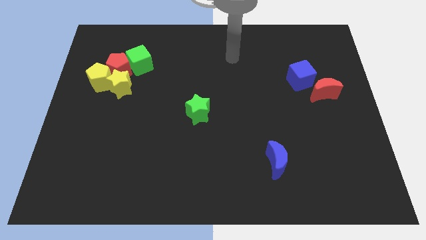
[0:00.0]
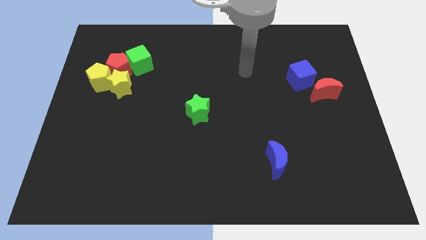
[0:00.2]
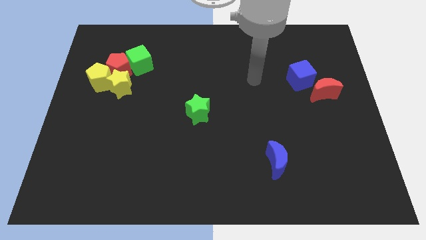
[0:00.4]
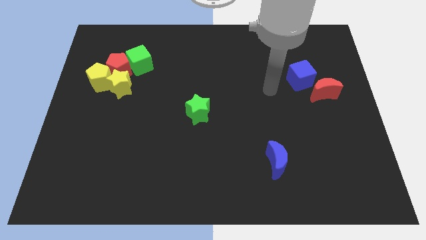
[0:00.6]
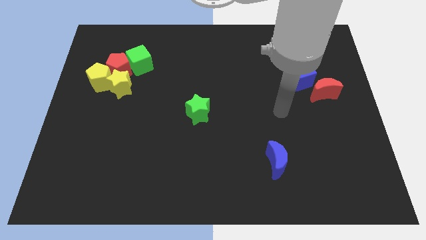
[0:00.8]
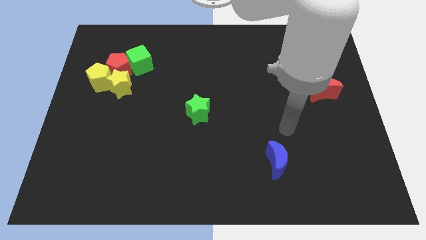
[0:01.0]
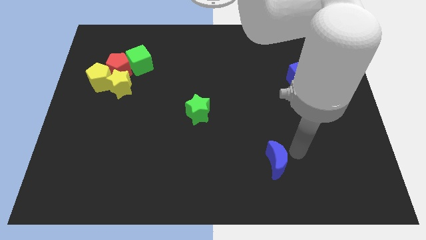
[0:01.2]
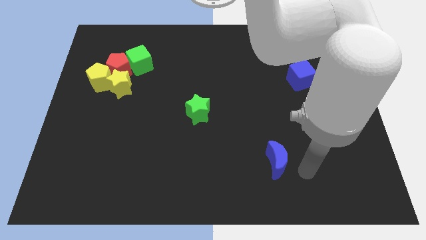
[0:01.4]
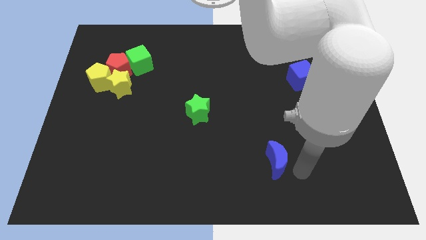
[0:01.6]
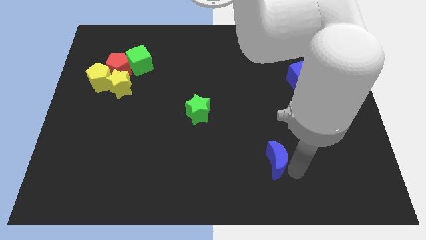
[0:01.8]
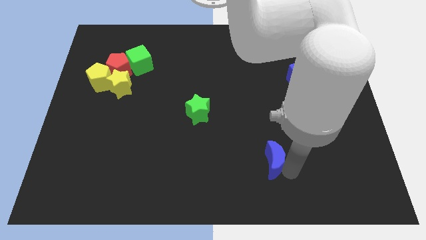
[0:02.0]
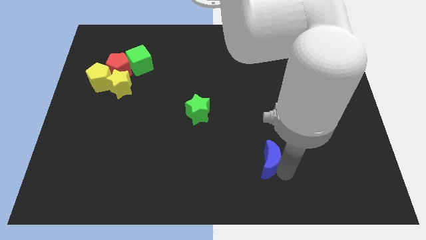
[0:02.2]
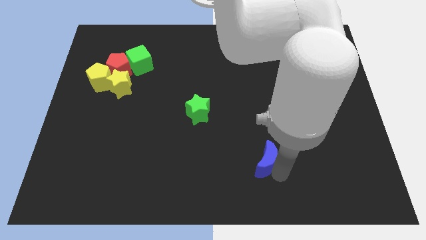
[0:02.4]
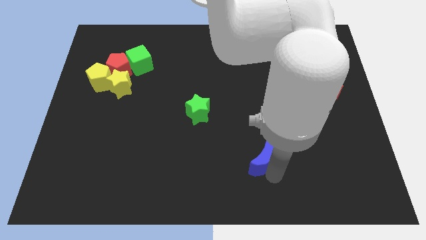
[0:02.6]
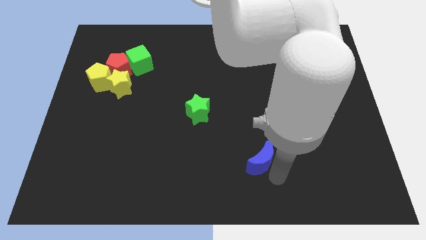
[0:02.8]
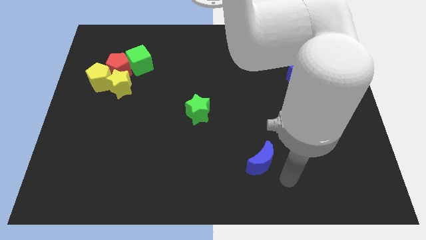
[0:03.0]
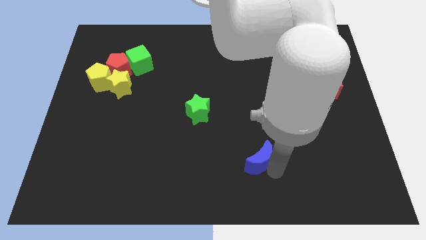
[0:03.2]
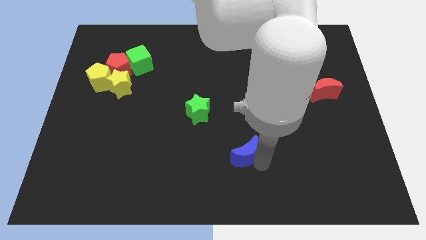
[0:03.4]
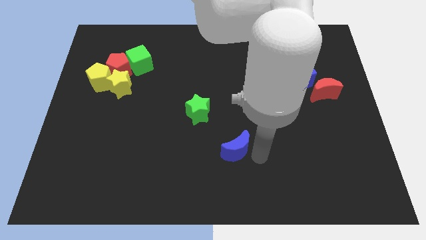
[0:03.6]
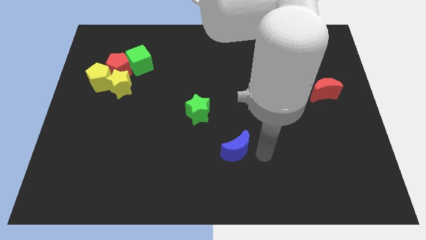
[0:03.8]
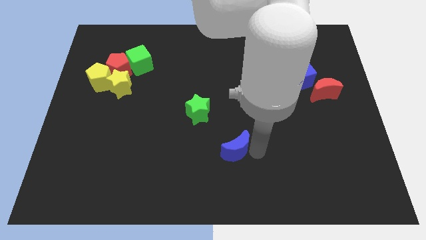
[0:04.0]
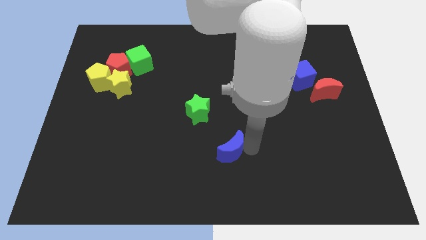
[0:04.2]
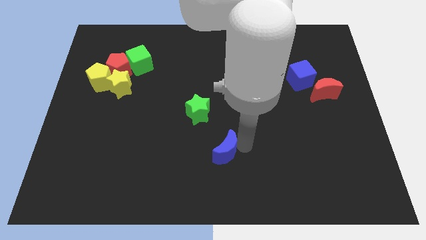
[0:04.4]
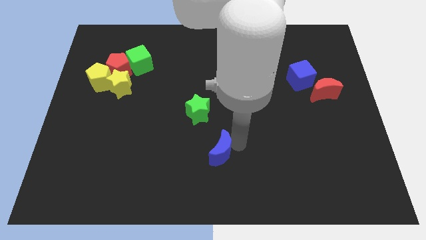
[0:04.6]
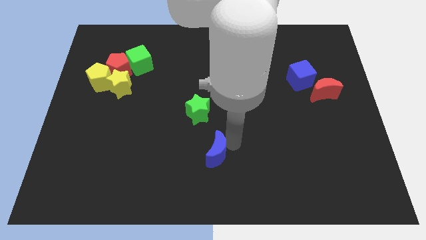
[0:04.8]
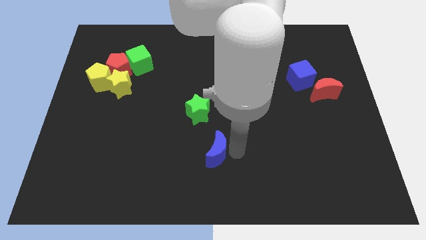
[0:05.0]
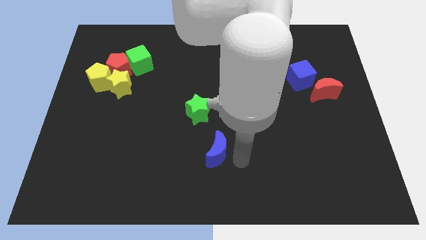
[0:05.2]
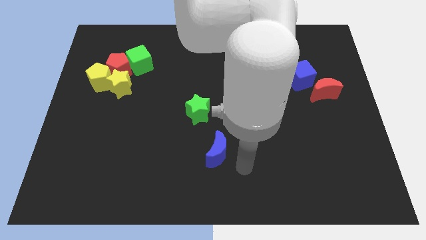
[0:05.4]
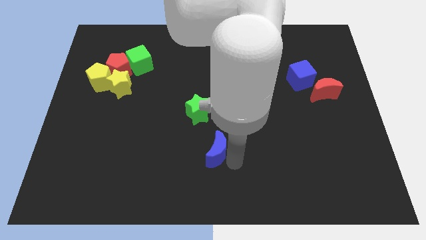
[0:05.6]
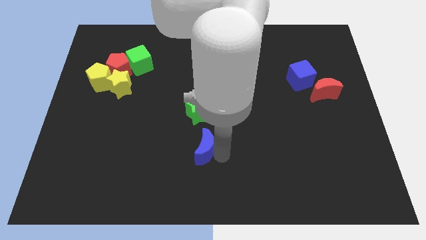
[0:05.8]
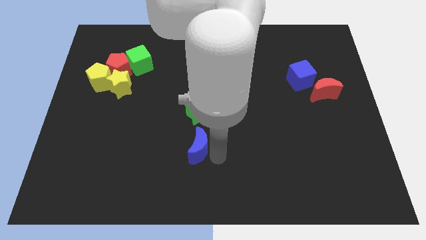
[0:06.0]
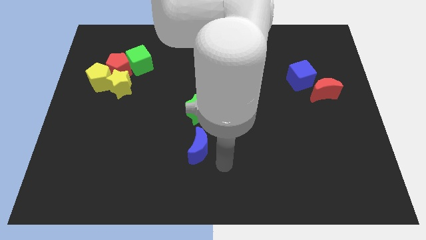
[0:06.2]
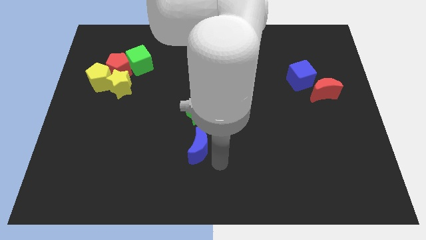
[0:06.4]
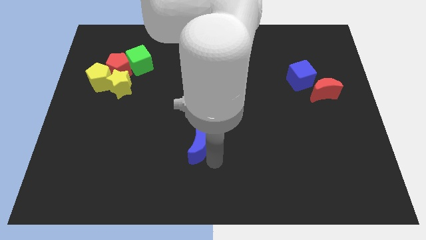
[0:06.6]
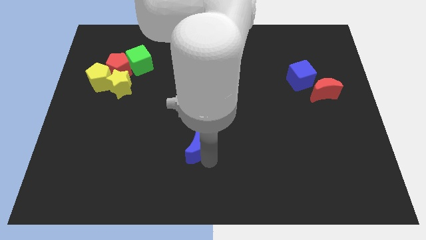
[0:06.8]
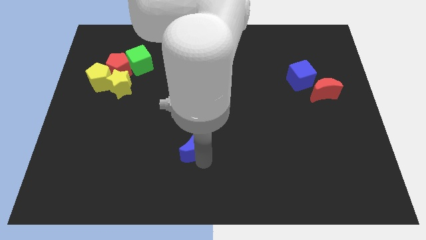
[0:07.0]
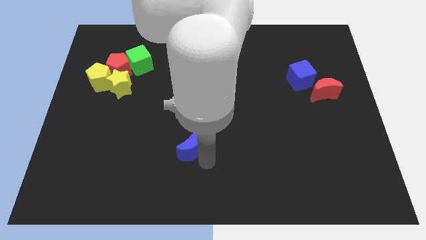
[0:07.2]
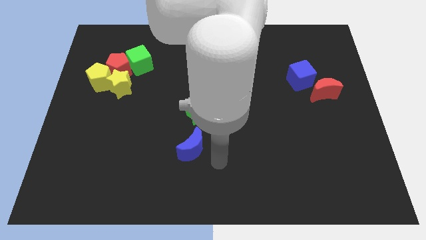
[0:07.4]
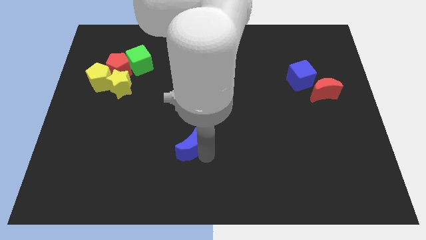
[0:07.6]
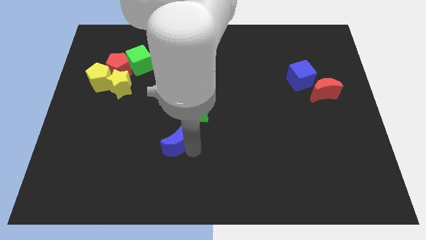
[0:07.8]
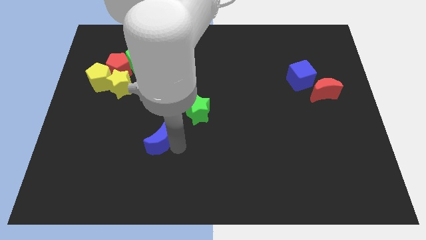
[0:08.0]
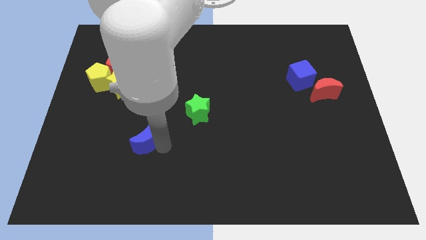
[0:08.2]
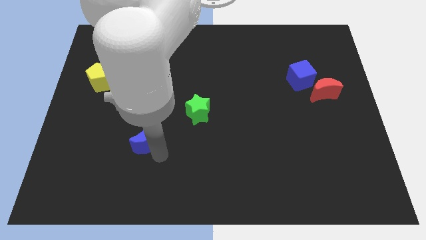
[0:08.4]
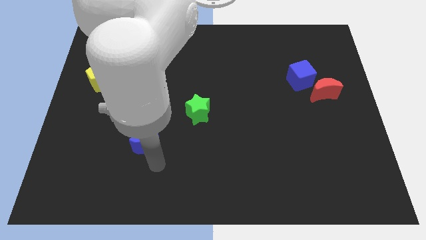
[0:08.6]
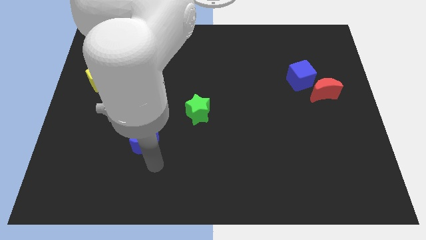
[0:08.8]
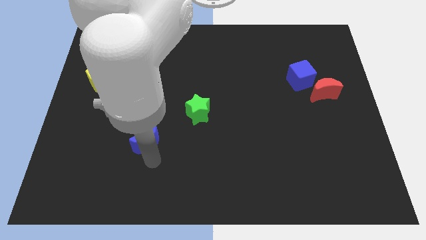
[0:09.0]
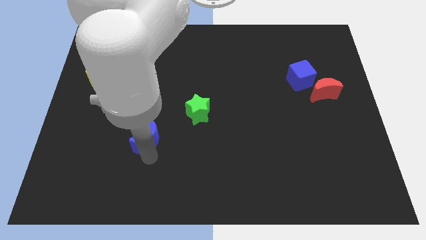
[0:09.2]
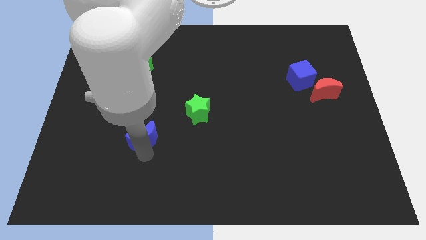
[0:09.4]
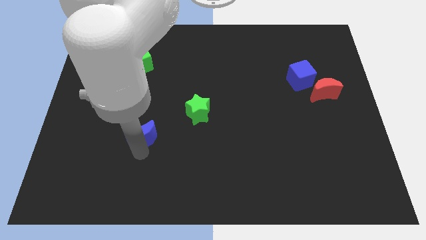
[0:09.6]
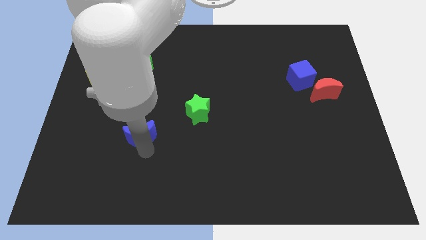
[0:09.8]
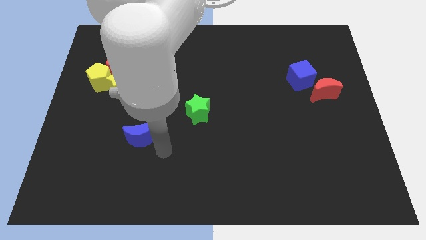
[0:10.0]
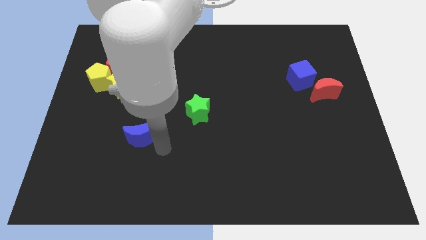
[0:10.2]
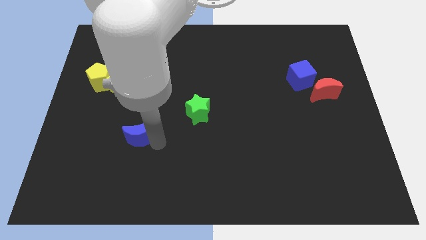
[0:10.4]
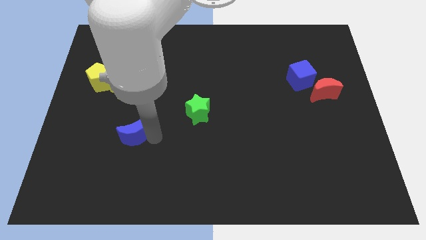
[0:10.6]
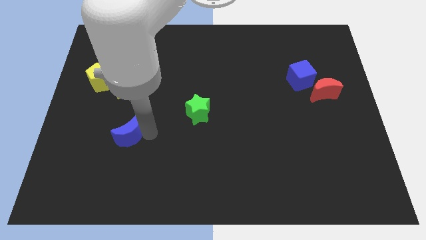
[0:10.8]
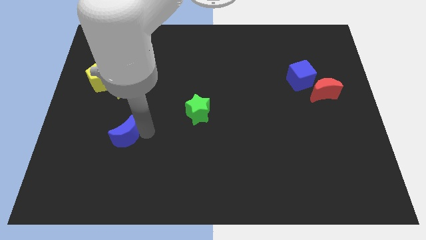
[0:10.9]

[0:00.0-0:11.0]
move the blue moon to the bottom side of the yellow star

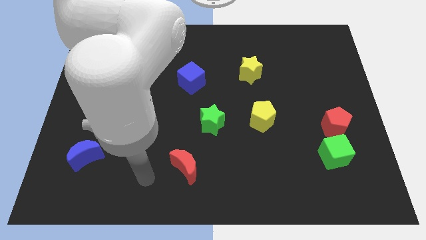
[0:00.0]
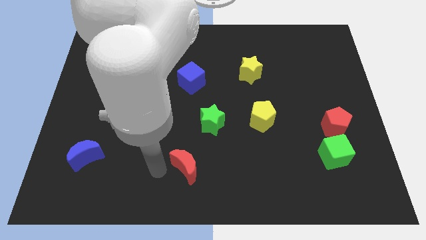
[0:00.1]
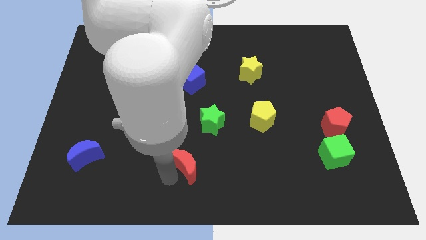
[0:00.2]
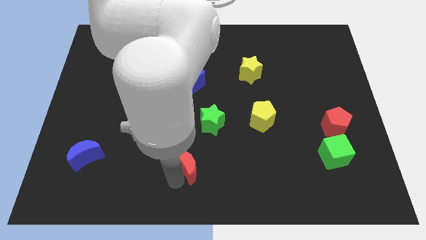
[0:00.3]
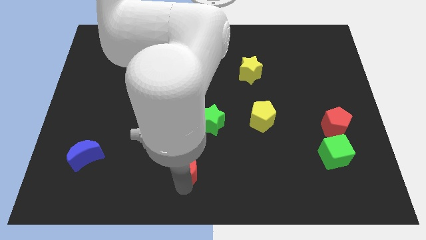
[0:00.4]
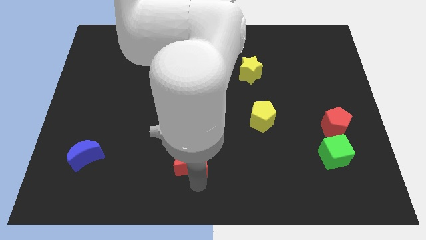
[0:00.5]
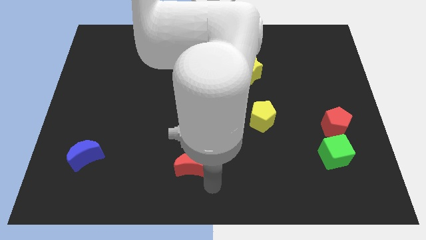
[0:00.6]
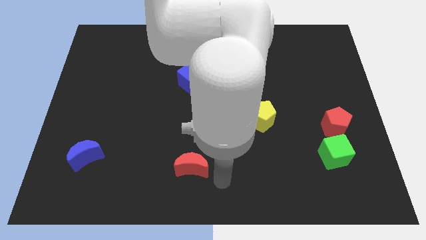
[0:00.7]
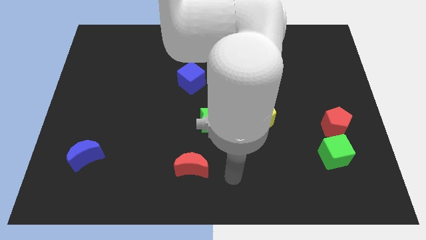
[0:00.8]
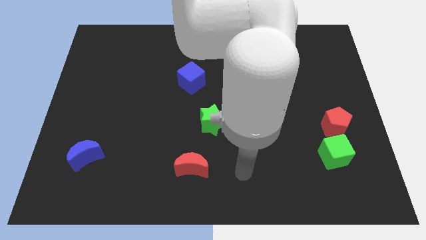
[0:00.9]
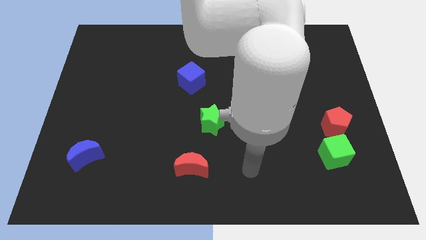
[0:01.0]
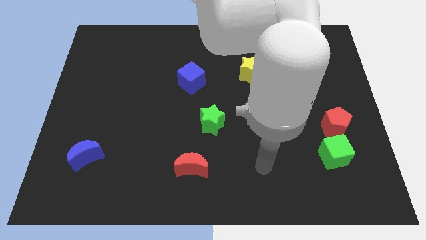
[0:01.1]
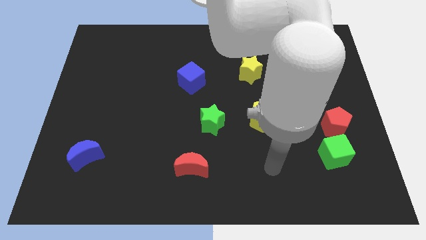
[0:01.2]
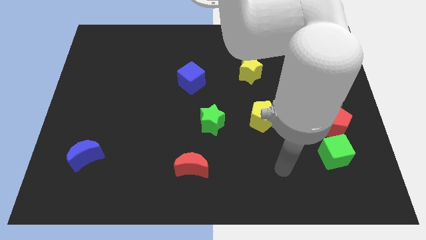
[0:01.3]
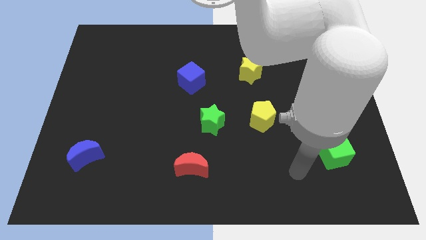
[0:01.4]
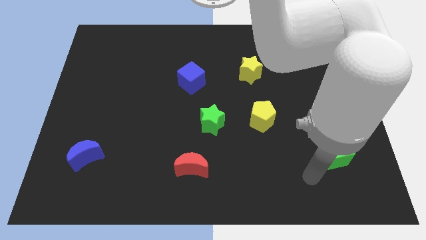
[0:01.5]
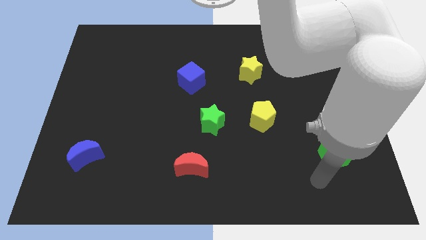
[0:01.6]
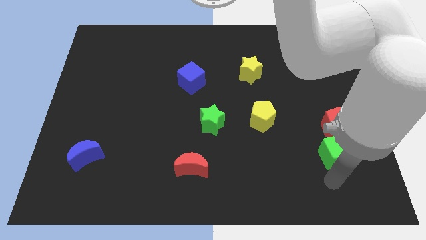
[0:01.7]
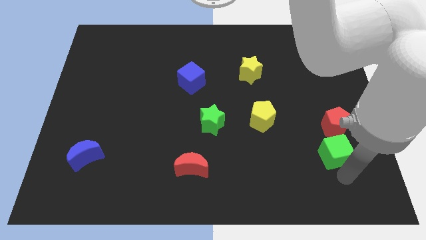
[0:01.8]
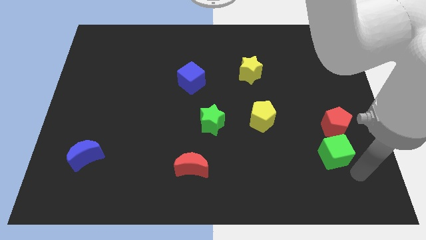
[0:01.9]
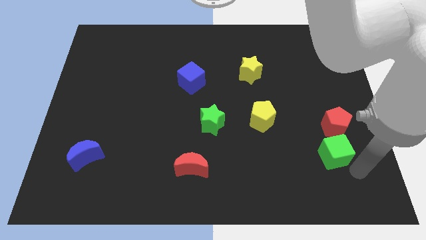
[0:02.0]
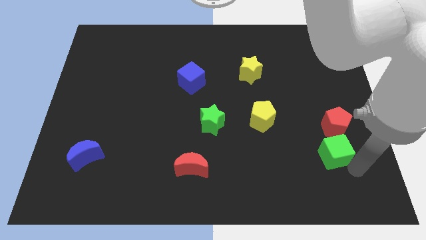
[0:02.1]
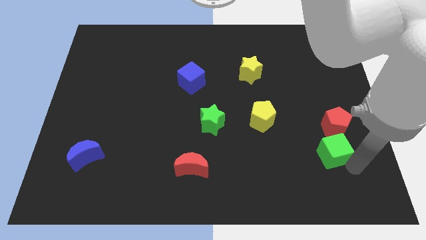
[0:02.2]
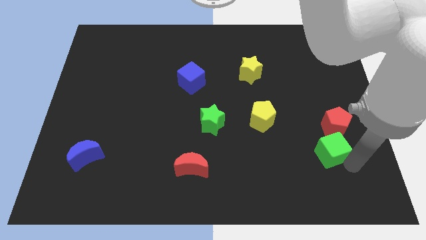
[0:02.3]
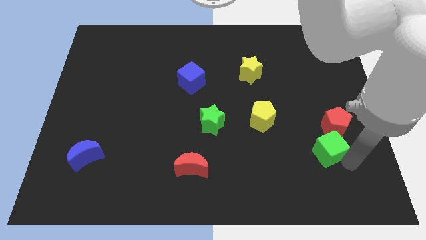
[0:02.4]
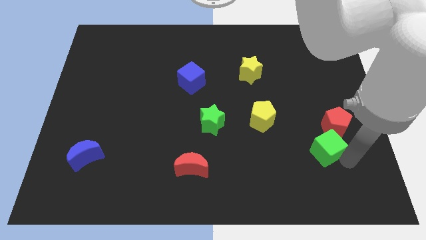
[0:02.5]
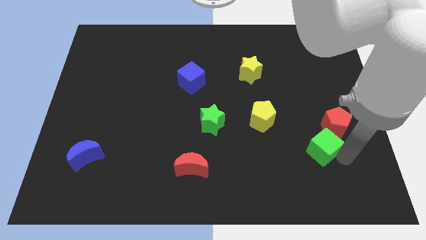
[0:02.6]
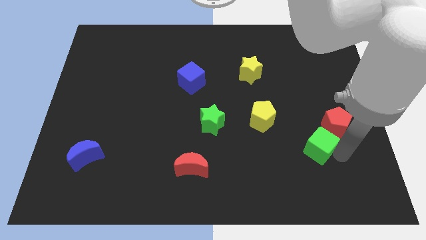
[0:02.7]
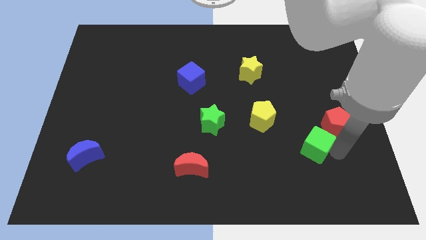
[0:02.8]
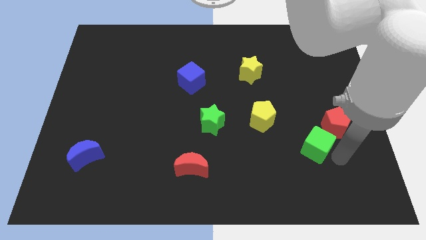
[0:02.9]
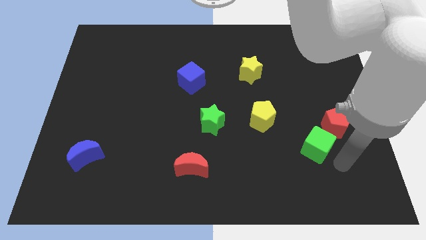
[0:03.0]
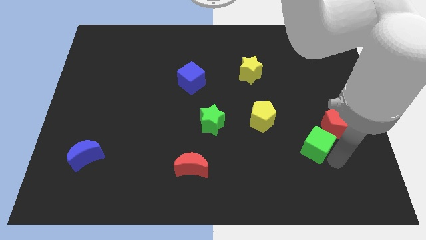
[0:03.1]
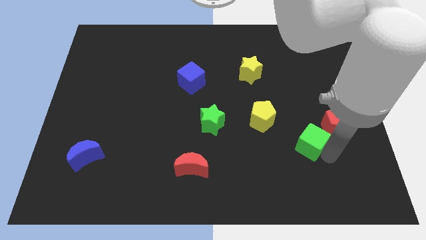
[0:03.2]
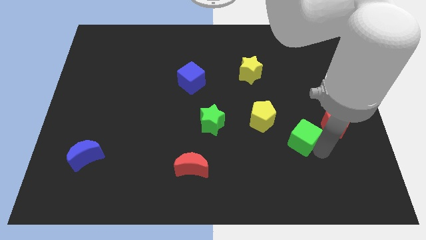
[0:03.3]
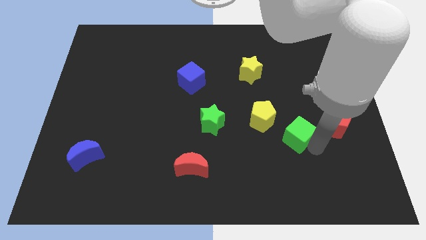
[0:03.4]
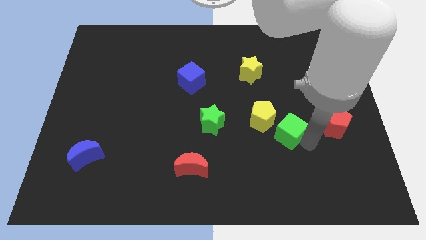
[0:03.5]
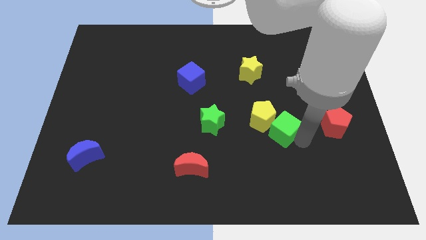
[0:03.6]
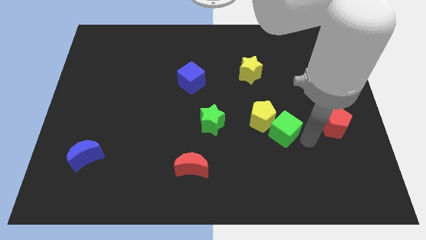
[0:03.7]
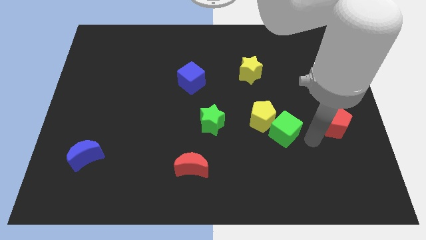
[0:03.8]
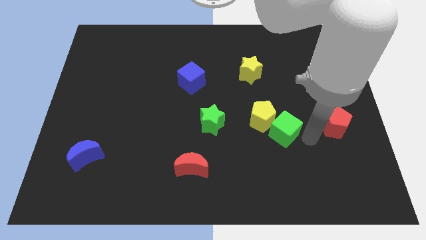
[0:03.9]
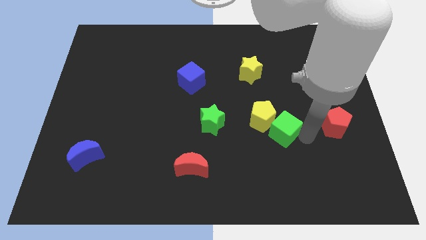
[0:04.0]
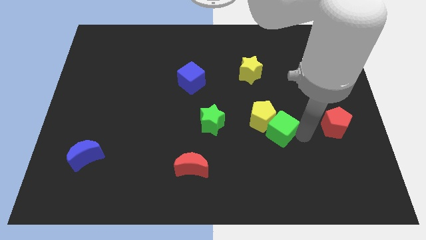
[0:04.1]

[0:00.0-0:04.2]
move the green cube to the right side of the green star
